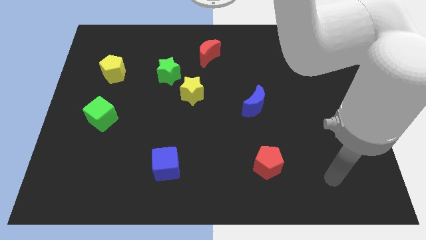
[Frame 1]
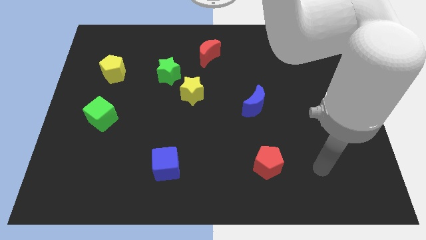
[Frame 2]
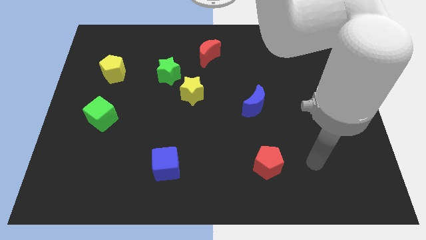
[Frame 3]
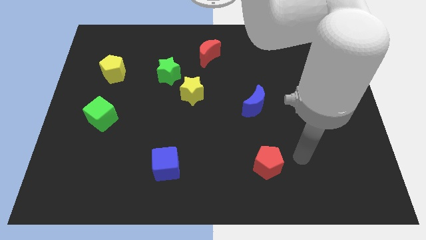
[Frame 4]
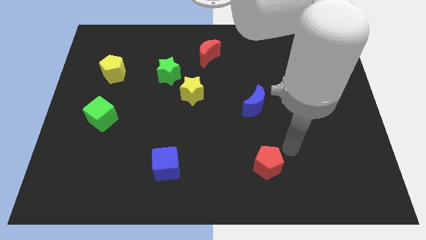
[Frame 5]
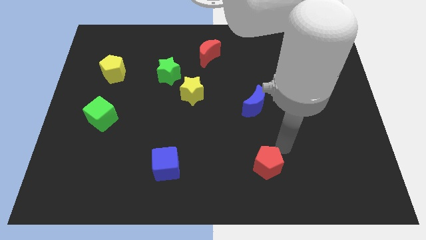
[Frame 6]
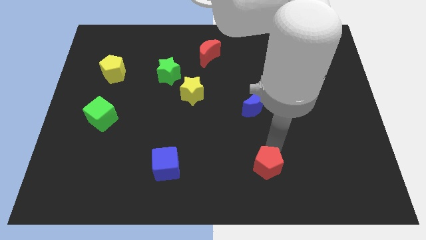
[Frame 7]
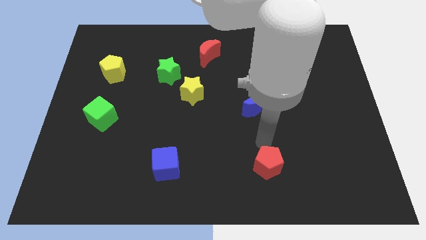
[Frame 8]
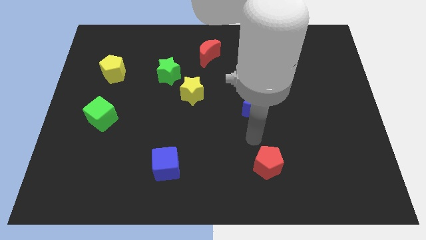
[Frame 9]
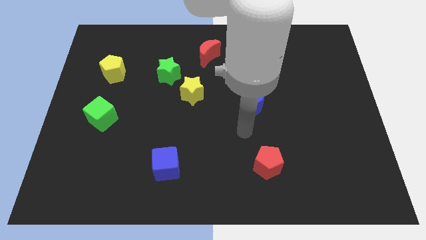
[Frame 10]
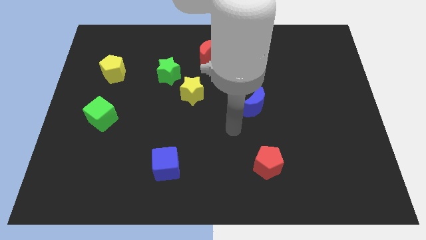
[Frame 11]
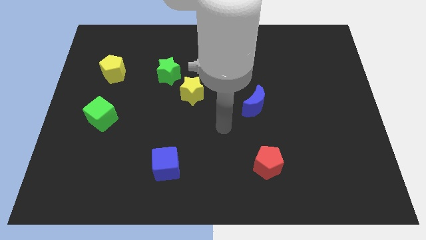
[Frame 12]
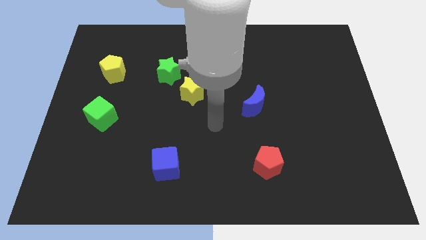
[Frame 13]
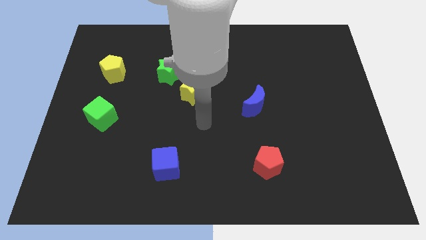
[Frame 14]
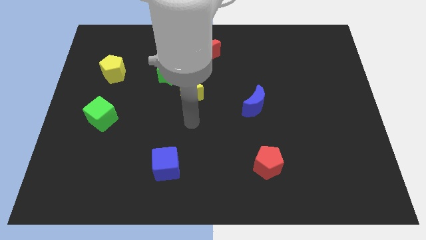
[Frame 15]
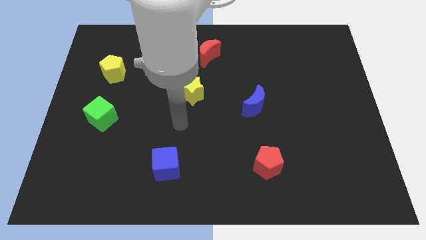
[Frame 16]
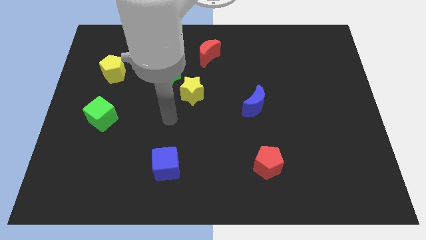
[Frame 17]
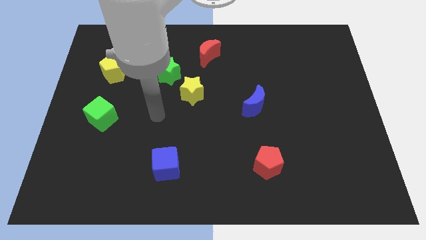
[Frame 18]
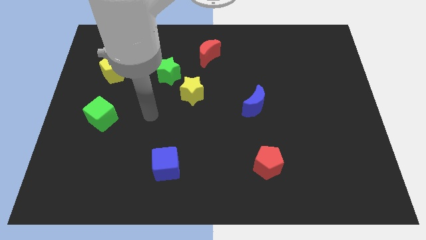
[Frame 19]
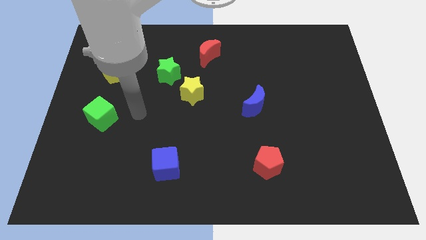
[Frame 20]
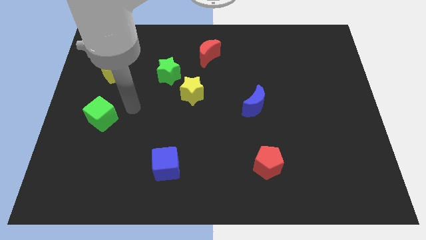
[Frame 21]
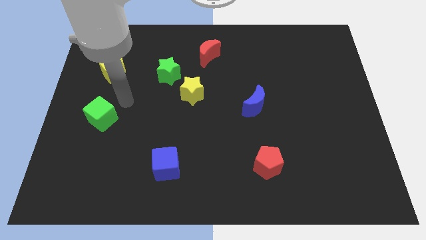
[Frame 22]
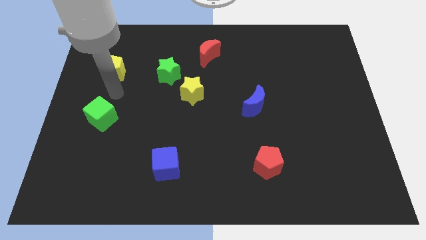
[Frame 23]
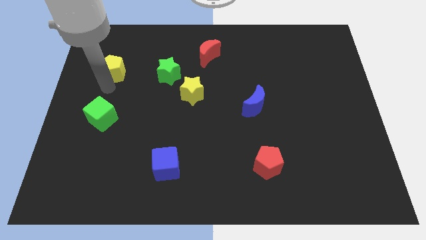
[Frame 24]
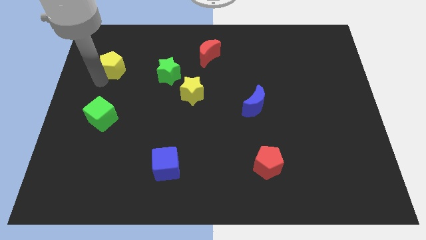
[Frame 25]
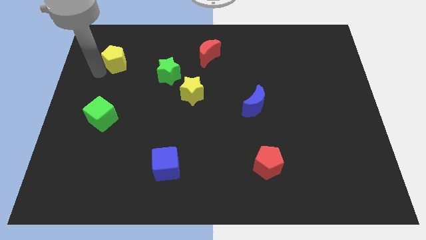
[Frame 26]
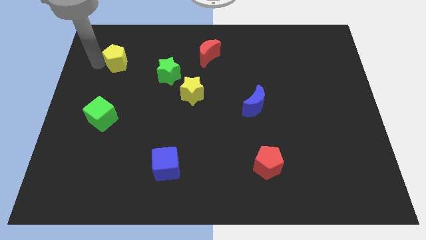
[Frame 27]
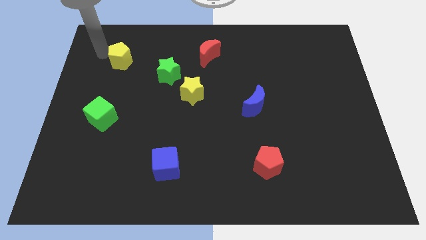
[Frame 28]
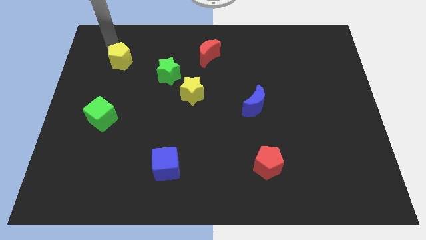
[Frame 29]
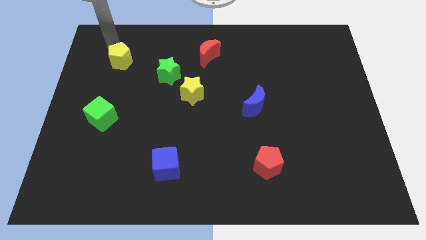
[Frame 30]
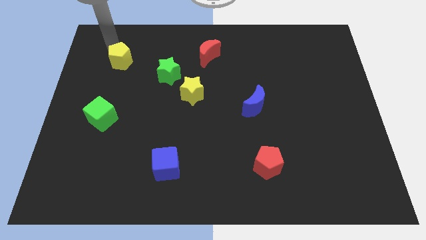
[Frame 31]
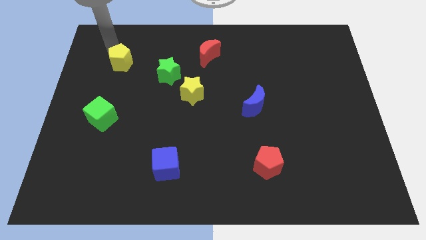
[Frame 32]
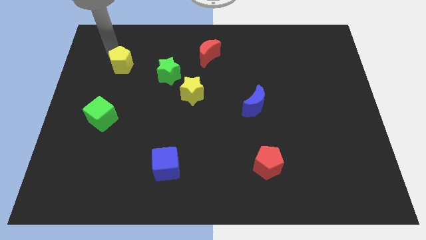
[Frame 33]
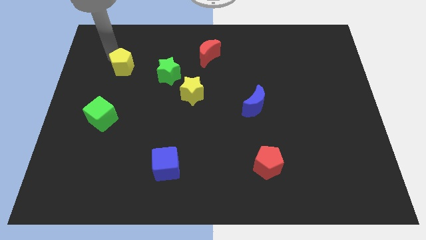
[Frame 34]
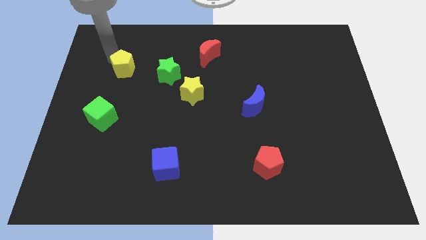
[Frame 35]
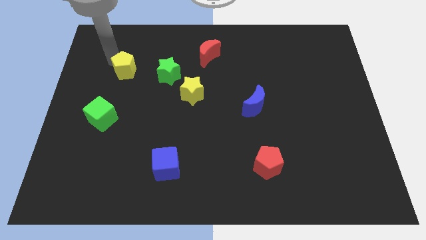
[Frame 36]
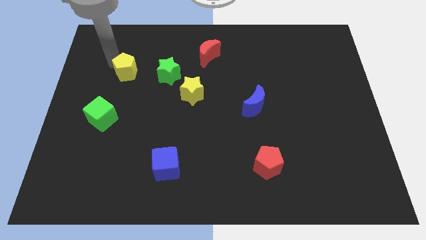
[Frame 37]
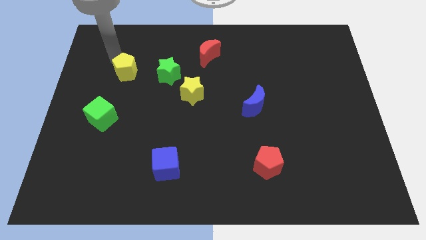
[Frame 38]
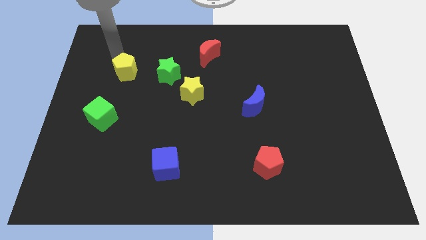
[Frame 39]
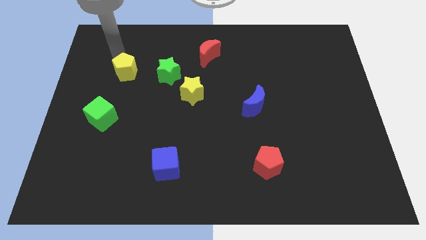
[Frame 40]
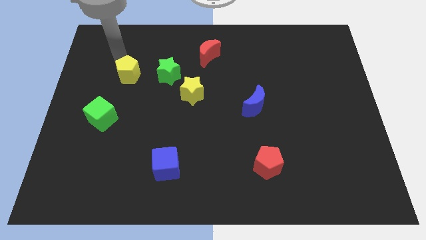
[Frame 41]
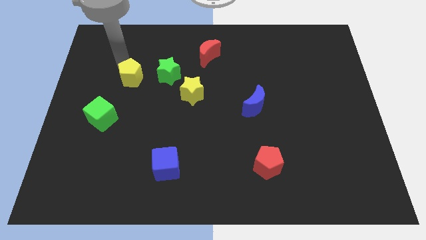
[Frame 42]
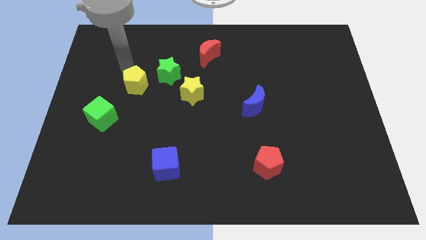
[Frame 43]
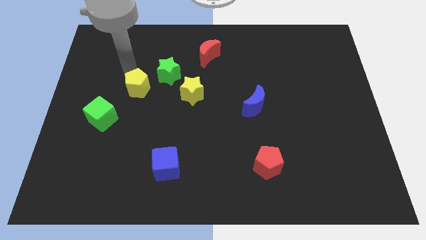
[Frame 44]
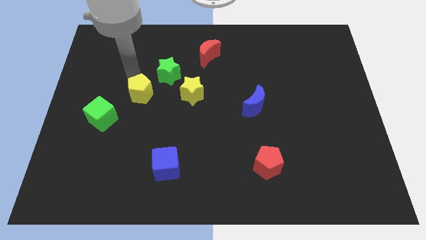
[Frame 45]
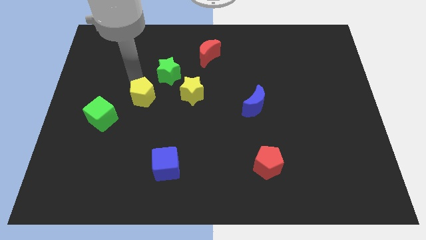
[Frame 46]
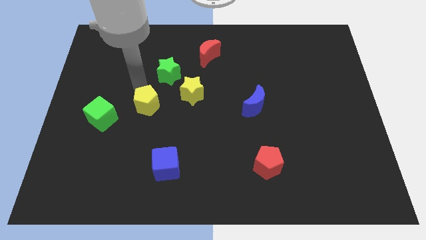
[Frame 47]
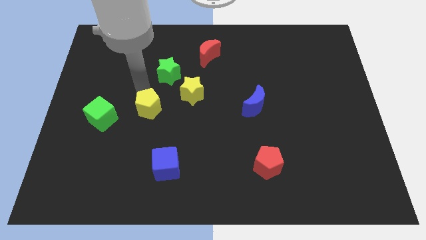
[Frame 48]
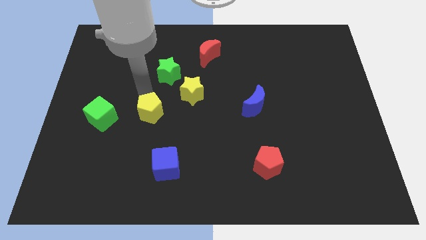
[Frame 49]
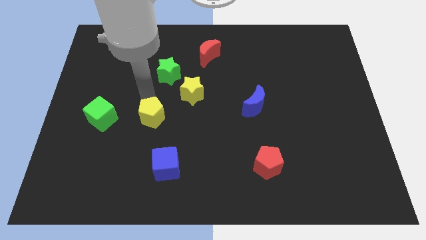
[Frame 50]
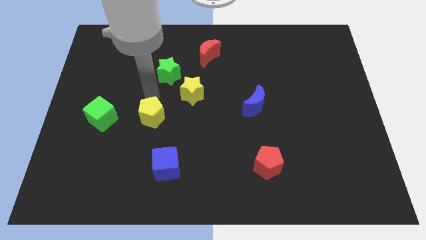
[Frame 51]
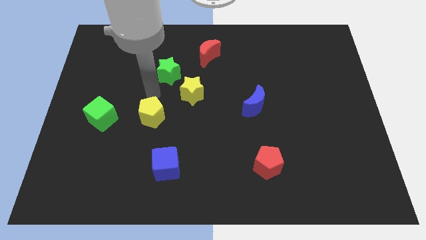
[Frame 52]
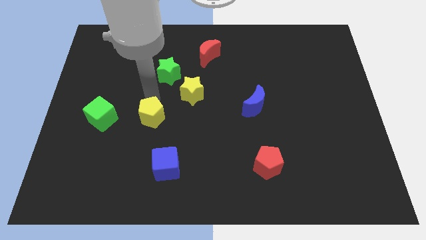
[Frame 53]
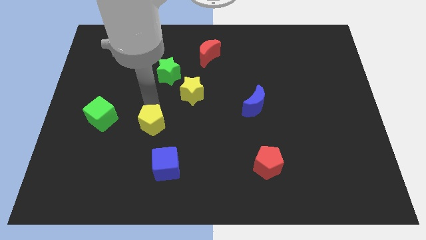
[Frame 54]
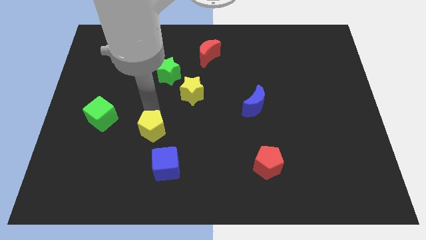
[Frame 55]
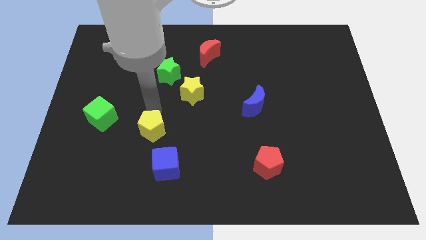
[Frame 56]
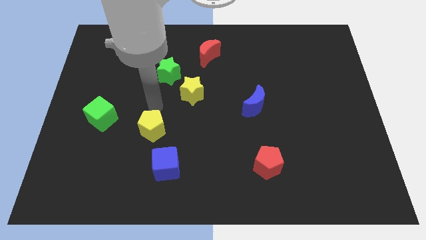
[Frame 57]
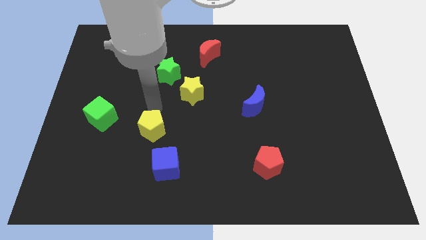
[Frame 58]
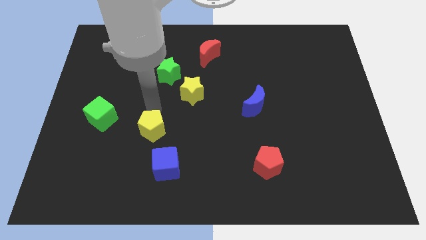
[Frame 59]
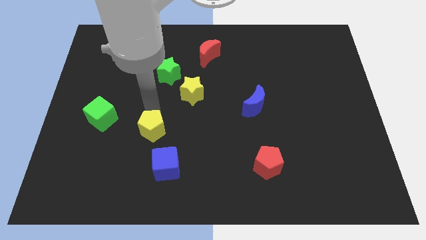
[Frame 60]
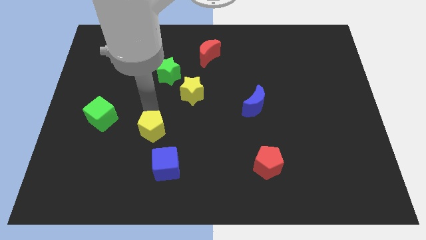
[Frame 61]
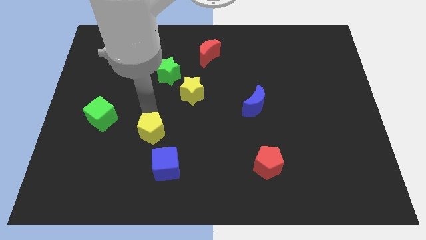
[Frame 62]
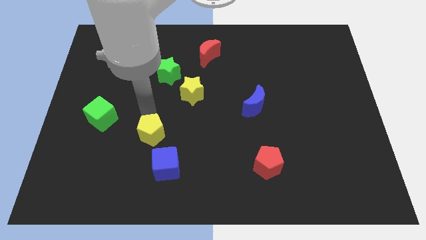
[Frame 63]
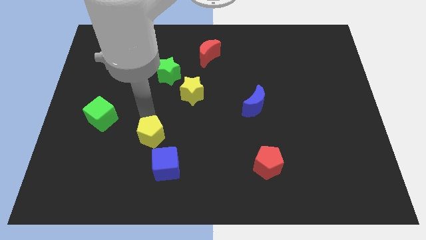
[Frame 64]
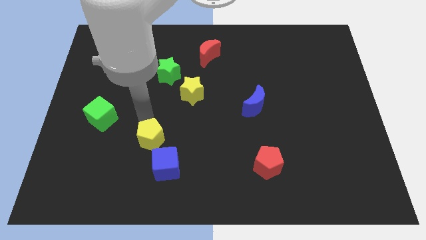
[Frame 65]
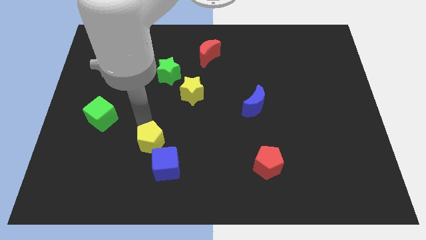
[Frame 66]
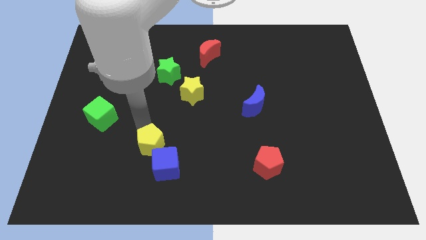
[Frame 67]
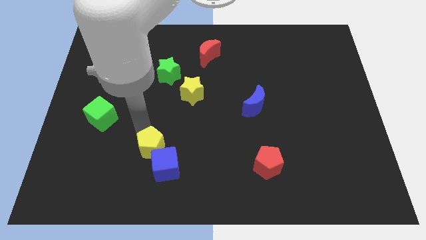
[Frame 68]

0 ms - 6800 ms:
put the yellow pentagon towards the blue cube

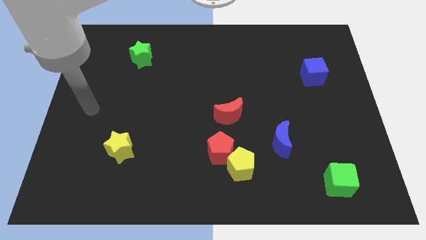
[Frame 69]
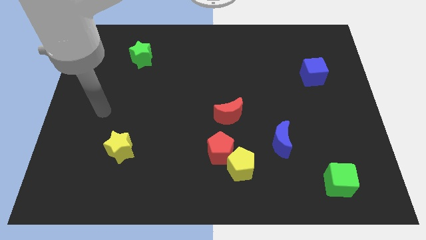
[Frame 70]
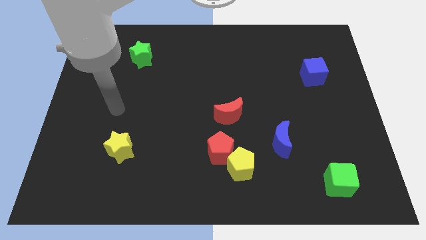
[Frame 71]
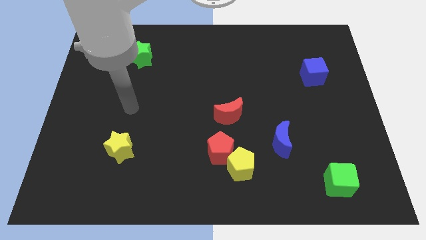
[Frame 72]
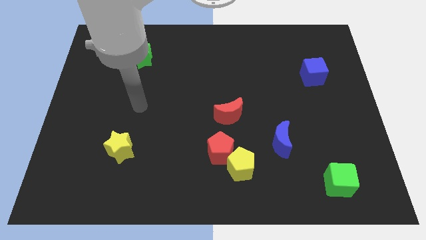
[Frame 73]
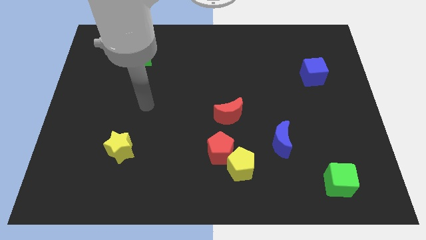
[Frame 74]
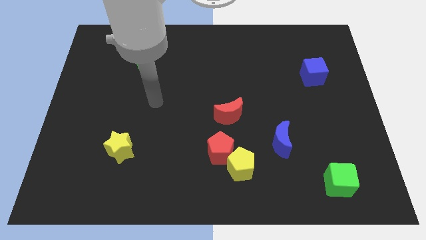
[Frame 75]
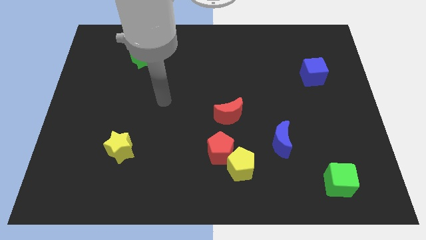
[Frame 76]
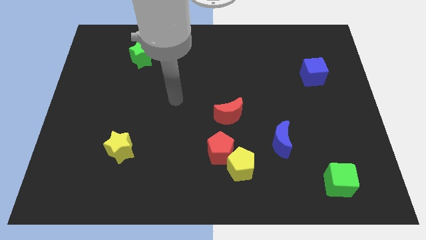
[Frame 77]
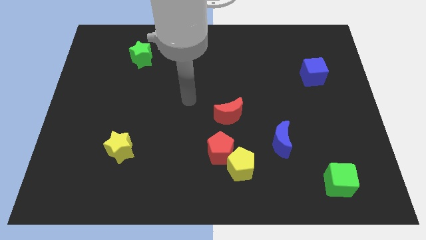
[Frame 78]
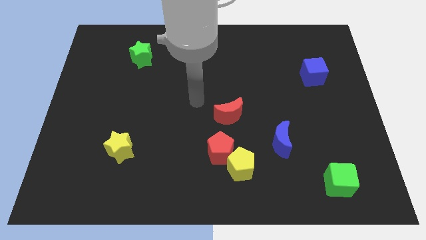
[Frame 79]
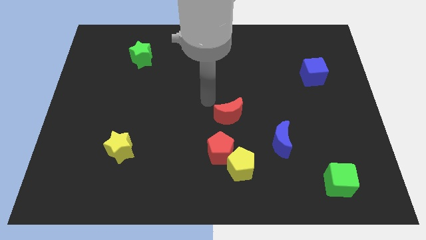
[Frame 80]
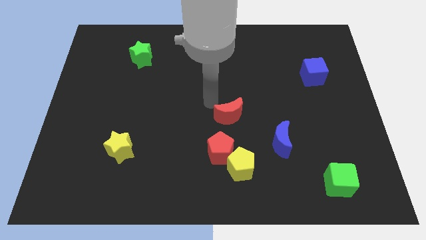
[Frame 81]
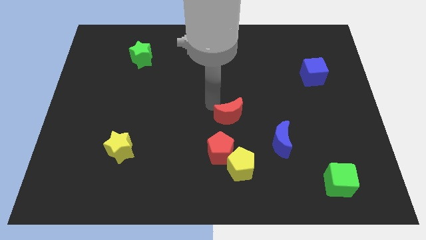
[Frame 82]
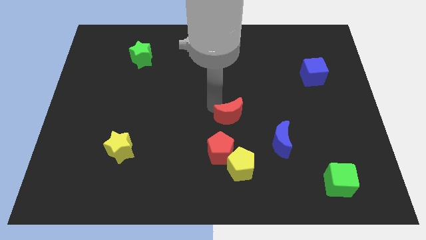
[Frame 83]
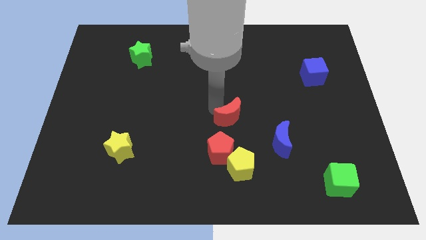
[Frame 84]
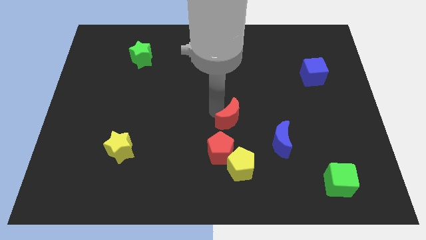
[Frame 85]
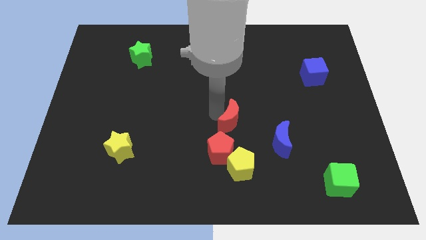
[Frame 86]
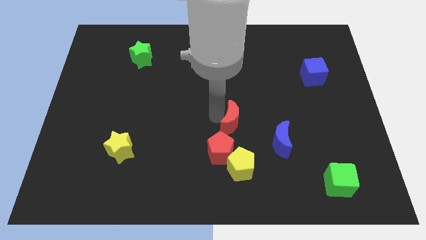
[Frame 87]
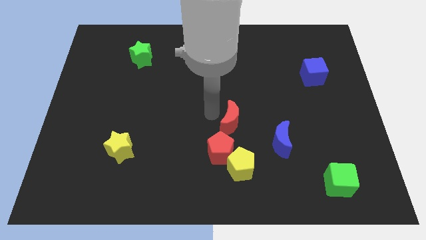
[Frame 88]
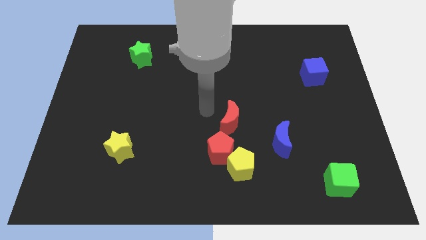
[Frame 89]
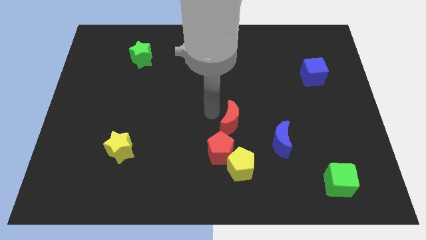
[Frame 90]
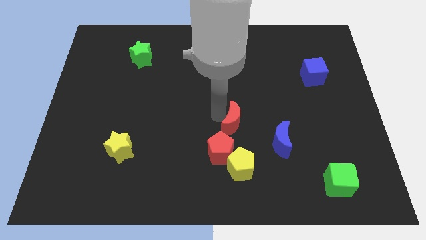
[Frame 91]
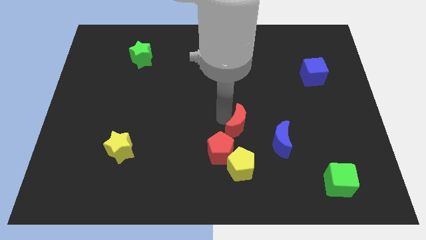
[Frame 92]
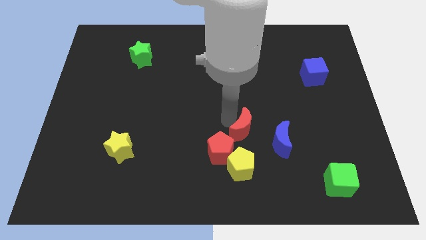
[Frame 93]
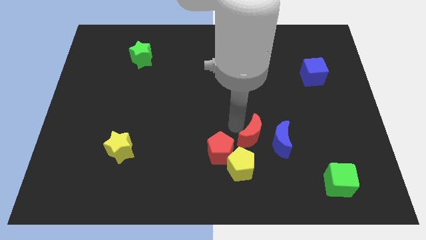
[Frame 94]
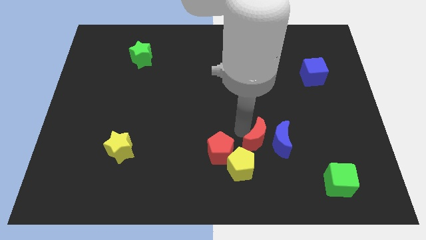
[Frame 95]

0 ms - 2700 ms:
put the red moon close to the blue moon
